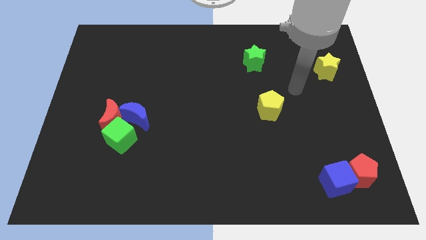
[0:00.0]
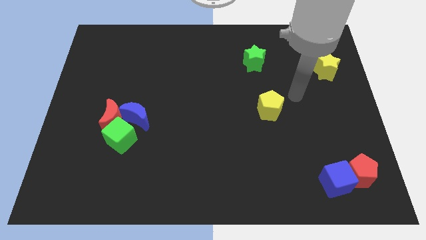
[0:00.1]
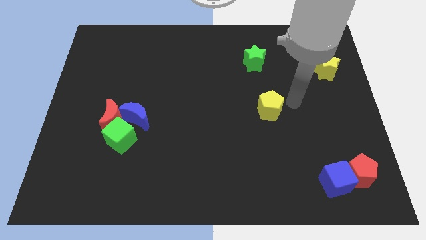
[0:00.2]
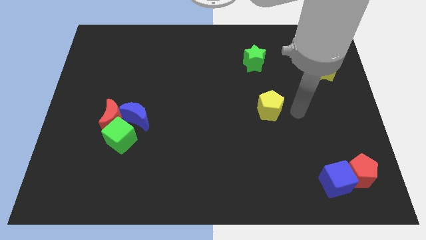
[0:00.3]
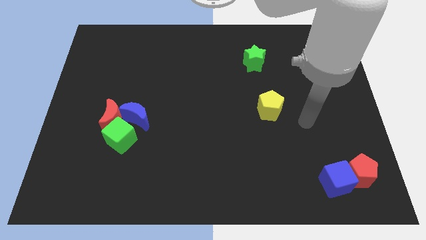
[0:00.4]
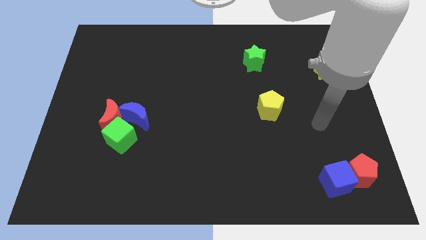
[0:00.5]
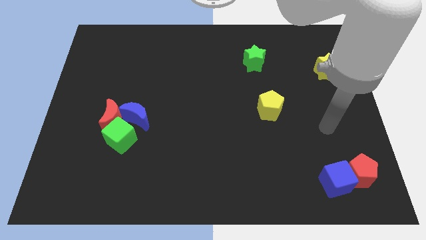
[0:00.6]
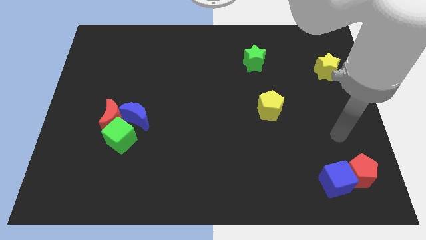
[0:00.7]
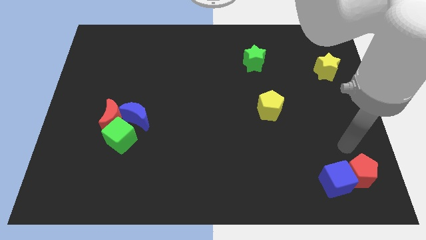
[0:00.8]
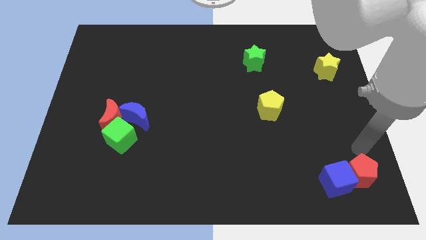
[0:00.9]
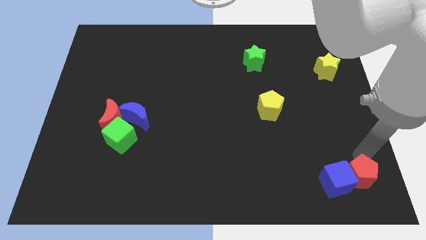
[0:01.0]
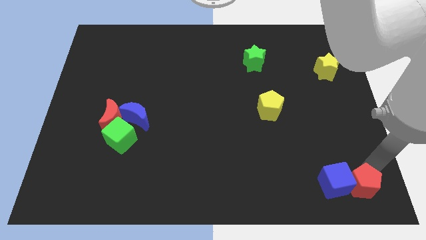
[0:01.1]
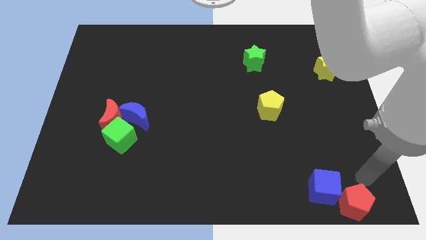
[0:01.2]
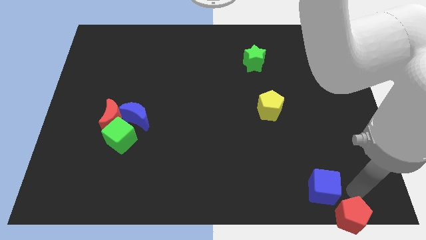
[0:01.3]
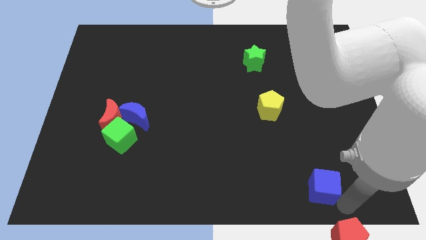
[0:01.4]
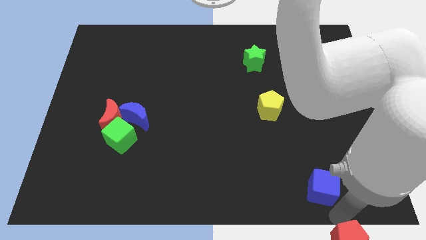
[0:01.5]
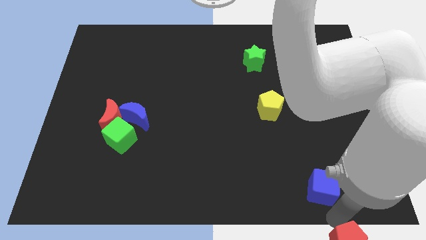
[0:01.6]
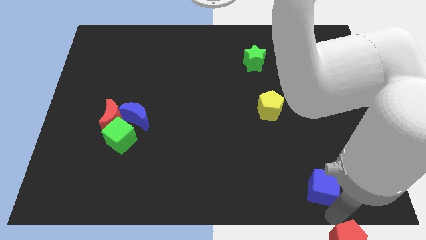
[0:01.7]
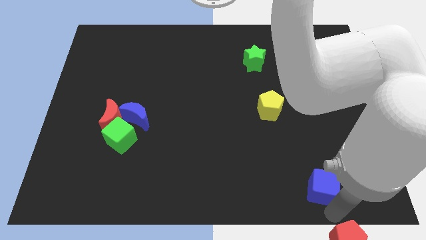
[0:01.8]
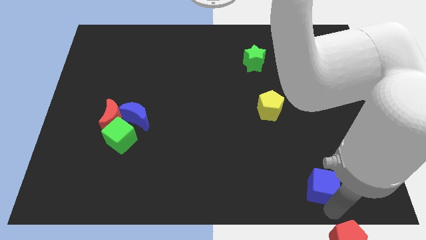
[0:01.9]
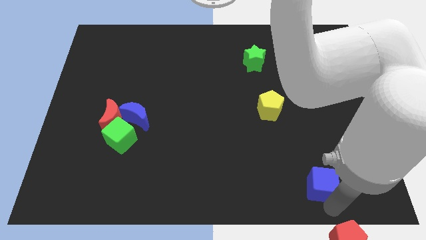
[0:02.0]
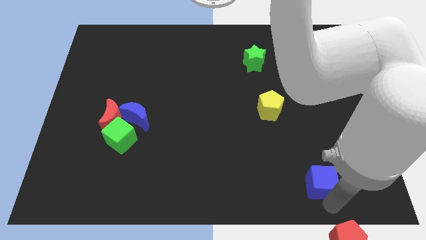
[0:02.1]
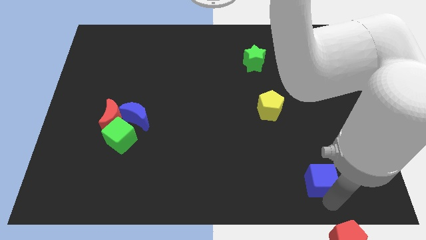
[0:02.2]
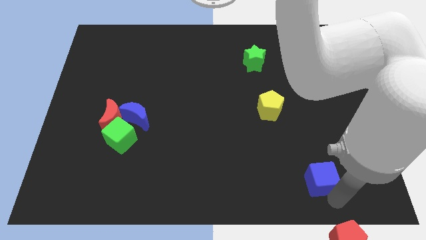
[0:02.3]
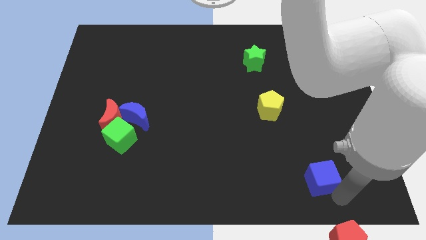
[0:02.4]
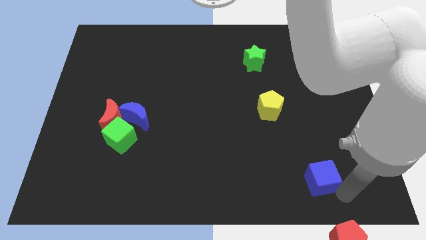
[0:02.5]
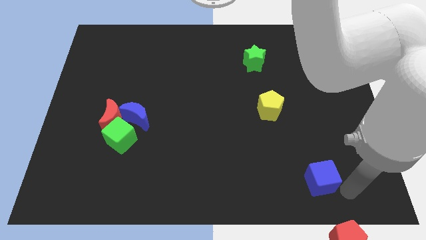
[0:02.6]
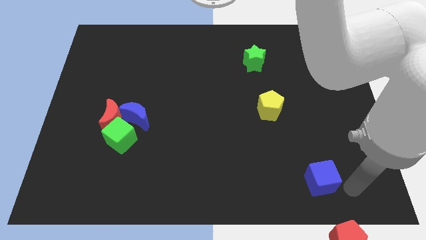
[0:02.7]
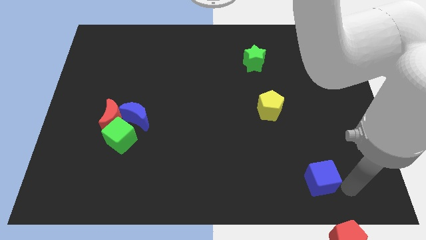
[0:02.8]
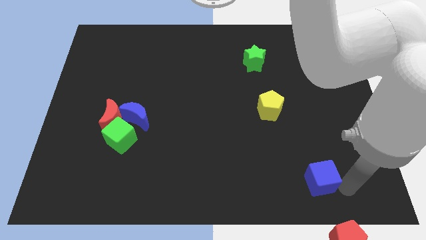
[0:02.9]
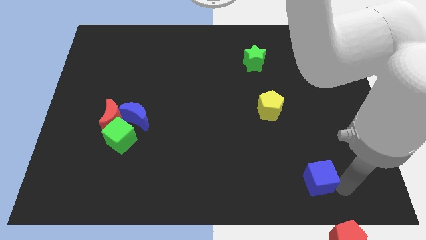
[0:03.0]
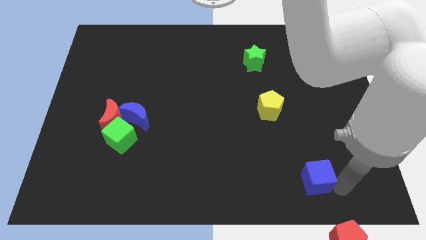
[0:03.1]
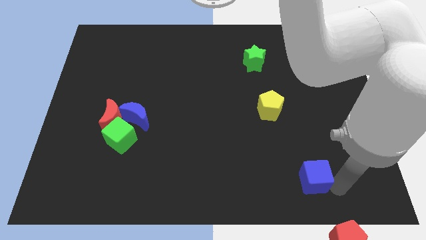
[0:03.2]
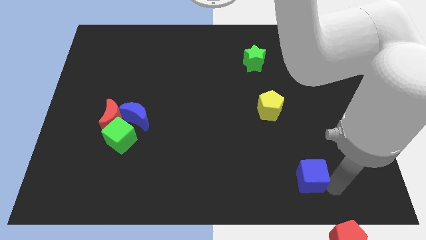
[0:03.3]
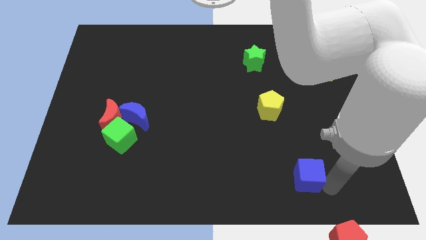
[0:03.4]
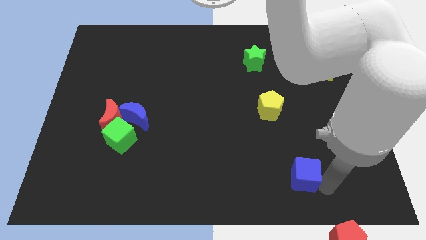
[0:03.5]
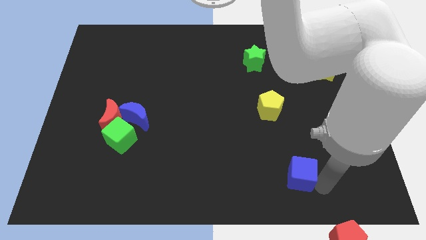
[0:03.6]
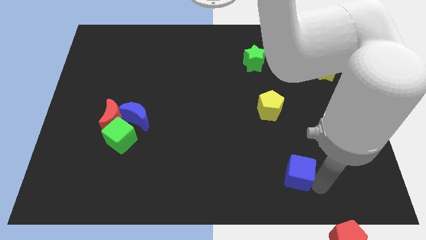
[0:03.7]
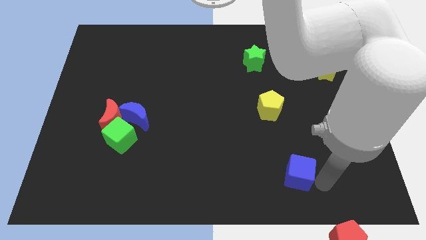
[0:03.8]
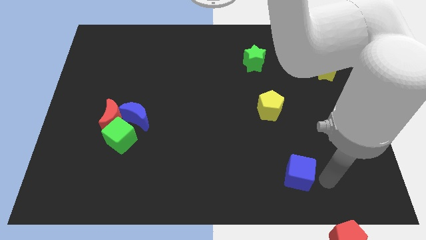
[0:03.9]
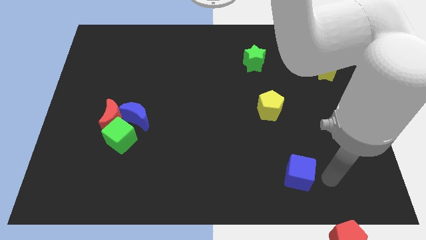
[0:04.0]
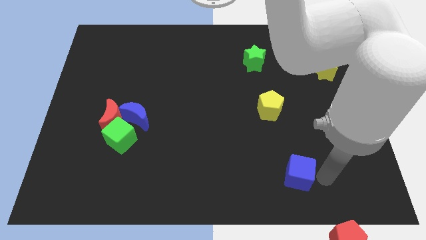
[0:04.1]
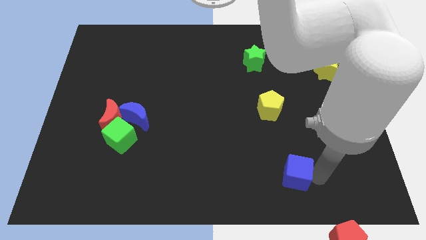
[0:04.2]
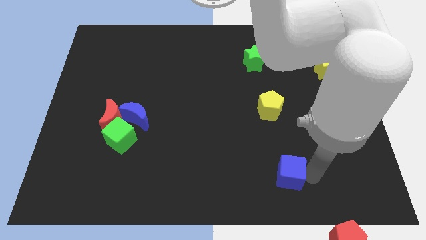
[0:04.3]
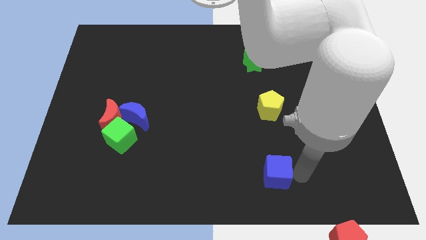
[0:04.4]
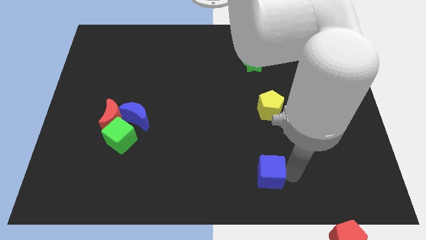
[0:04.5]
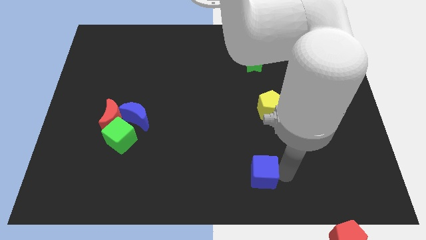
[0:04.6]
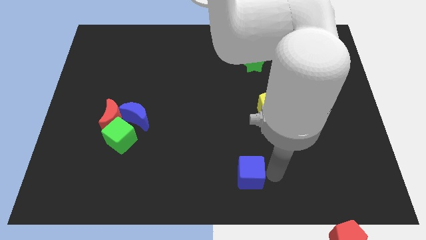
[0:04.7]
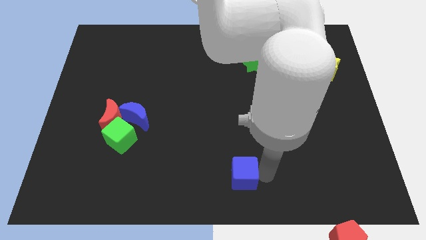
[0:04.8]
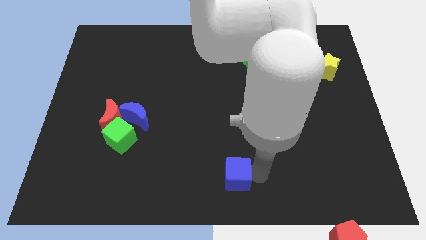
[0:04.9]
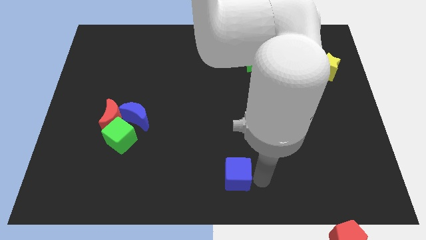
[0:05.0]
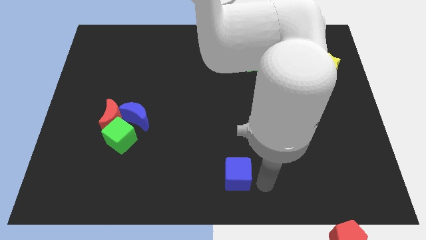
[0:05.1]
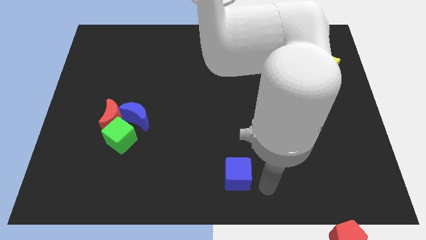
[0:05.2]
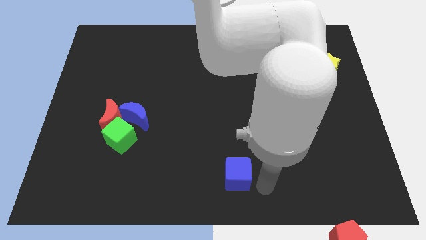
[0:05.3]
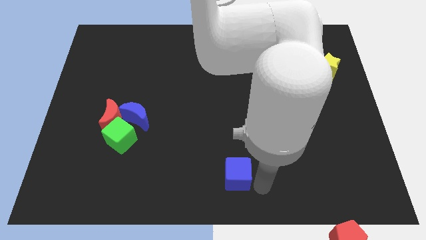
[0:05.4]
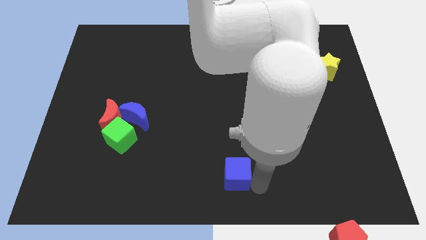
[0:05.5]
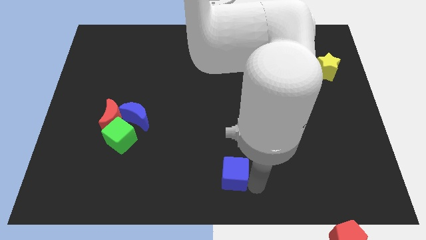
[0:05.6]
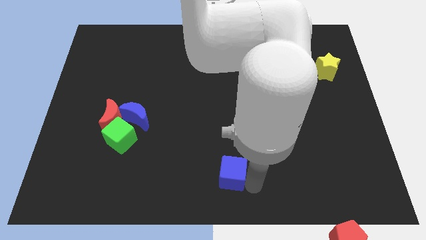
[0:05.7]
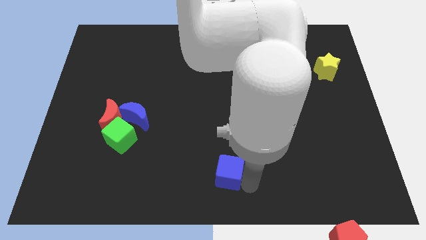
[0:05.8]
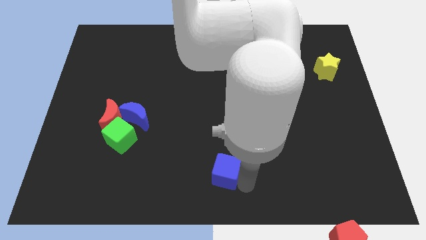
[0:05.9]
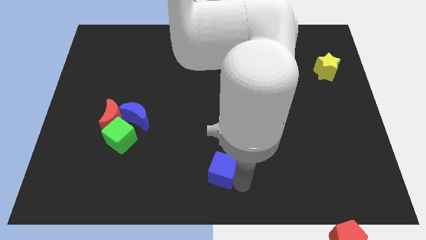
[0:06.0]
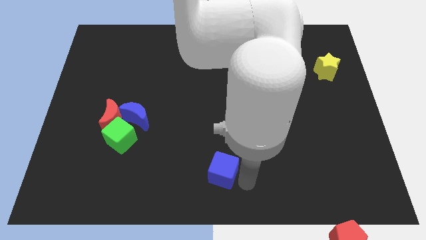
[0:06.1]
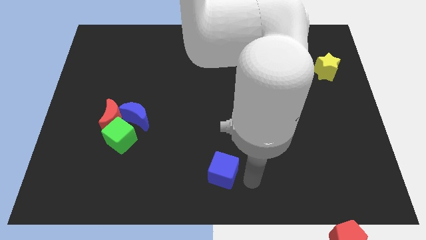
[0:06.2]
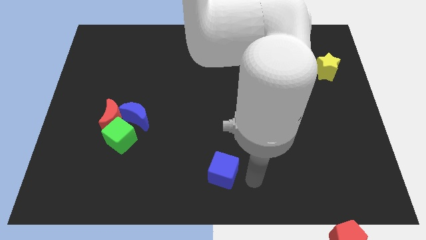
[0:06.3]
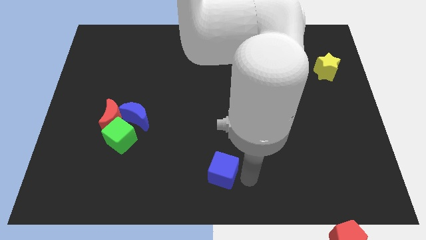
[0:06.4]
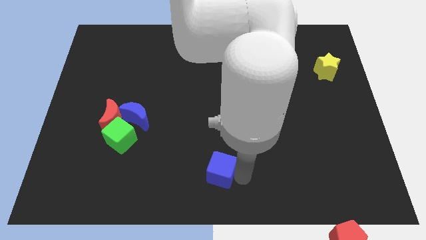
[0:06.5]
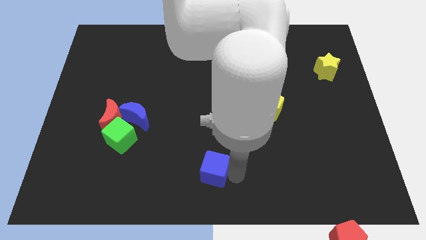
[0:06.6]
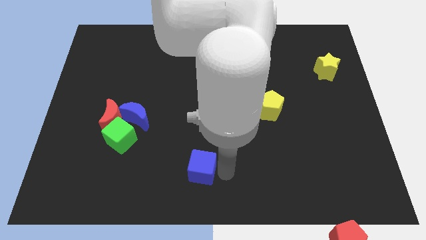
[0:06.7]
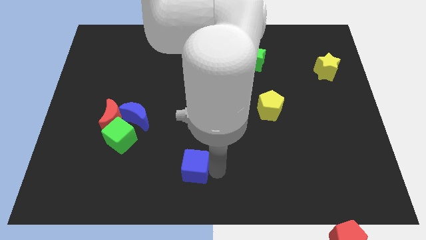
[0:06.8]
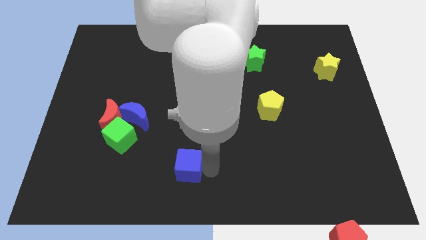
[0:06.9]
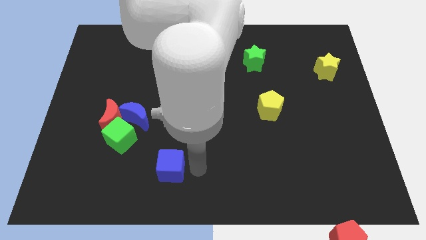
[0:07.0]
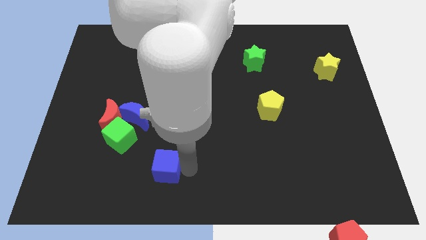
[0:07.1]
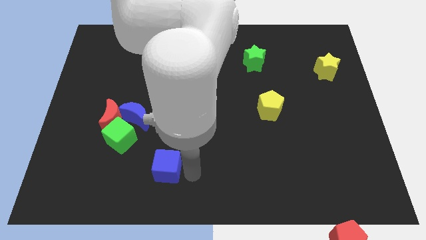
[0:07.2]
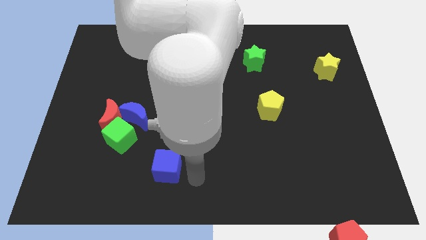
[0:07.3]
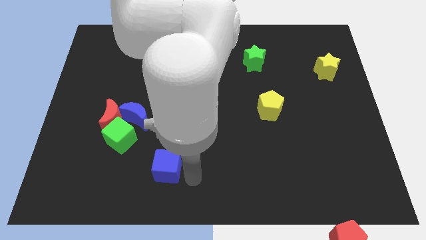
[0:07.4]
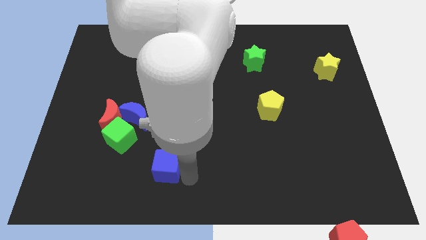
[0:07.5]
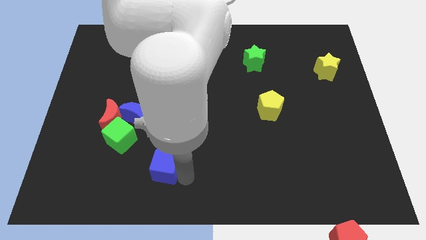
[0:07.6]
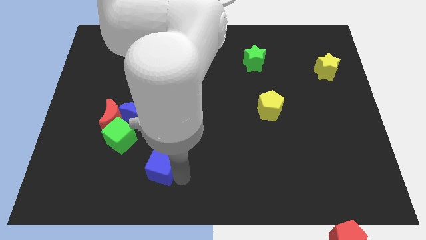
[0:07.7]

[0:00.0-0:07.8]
slide the blue cube diagonally down and to the right of the green cube
